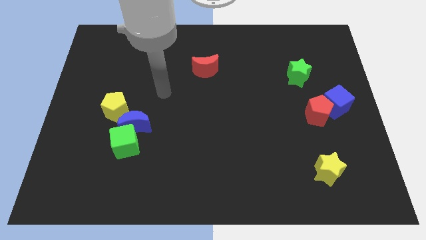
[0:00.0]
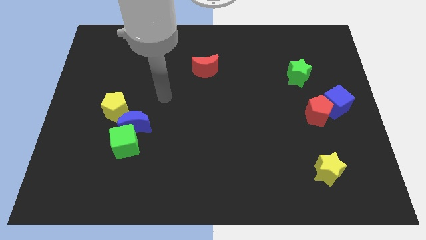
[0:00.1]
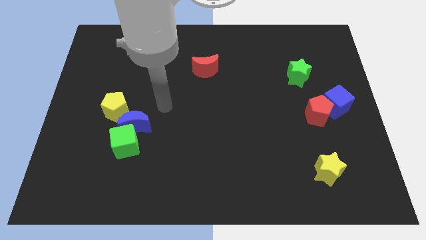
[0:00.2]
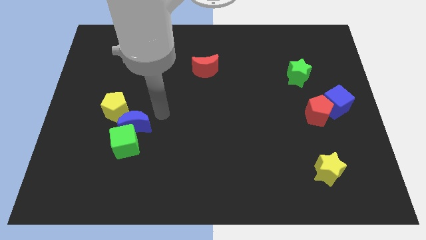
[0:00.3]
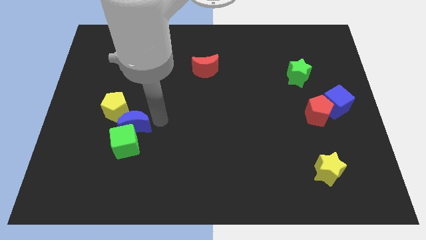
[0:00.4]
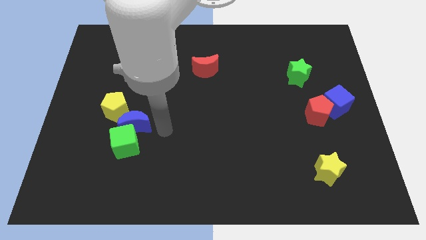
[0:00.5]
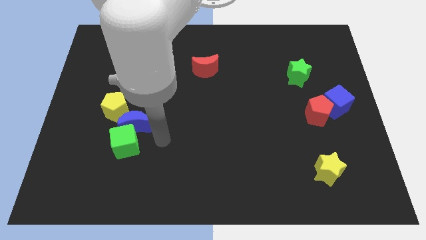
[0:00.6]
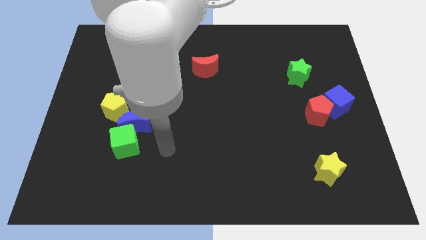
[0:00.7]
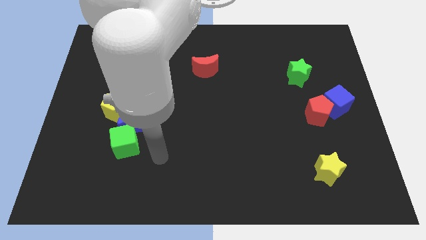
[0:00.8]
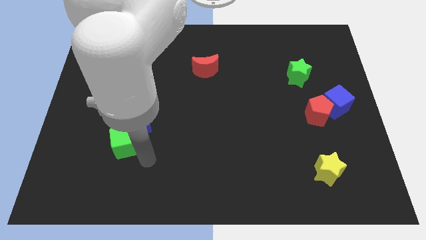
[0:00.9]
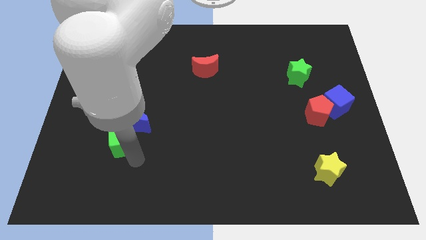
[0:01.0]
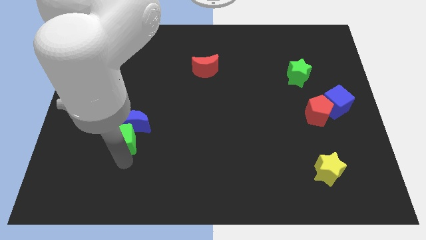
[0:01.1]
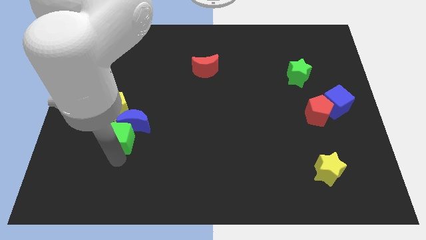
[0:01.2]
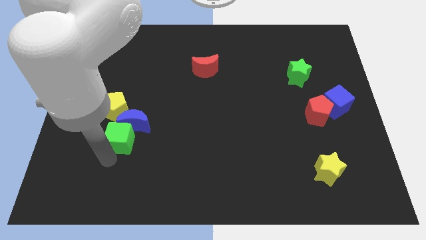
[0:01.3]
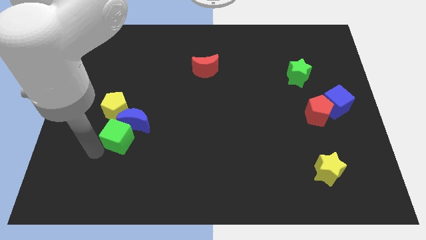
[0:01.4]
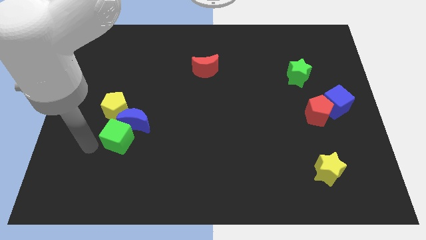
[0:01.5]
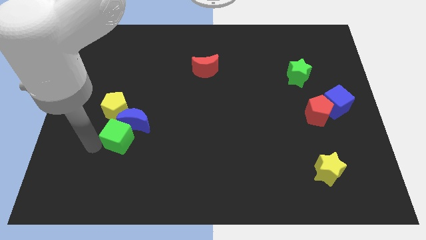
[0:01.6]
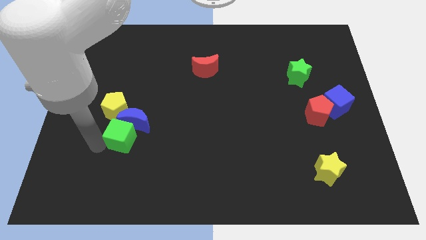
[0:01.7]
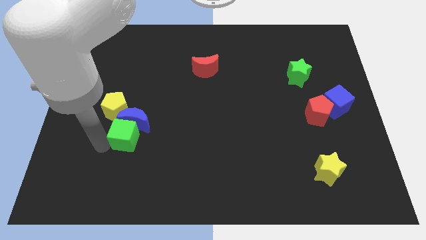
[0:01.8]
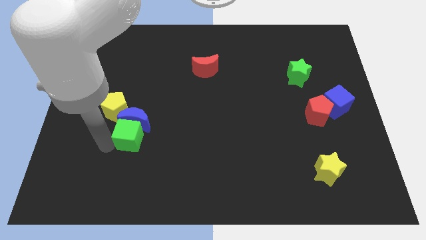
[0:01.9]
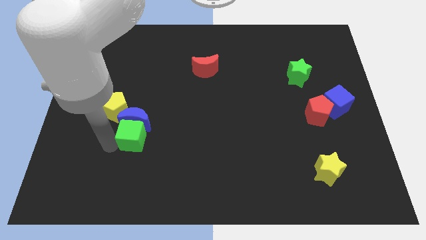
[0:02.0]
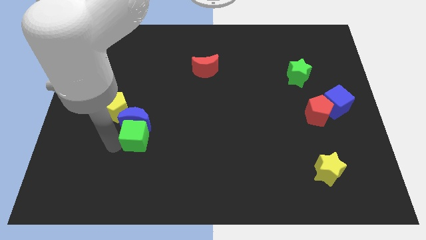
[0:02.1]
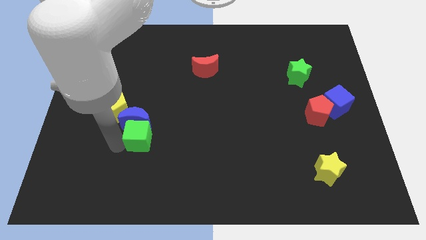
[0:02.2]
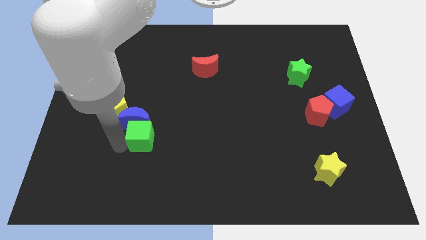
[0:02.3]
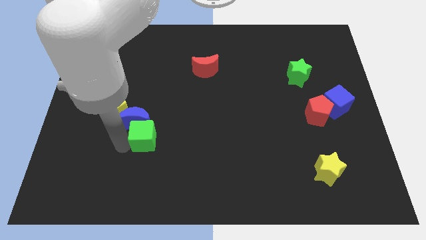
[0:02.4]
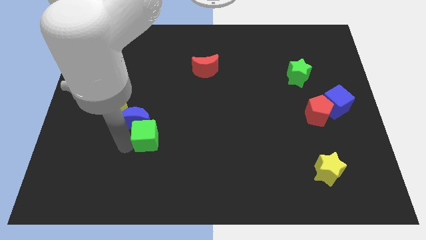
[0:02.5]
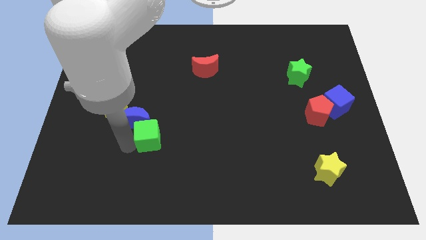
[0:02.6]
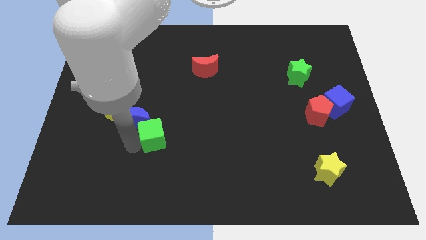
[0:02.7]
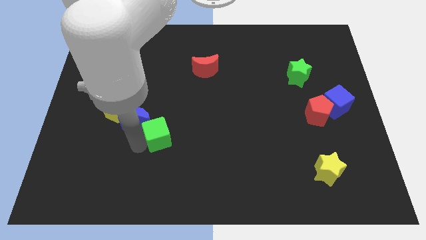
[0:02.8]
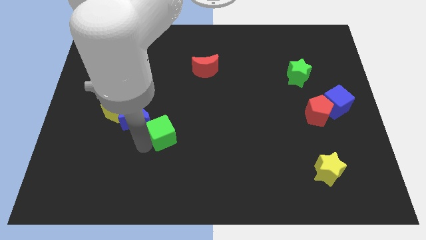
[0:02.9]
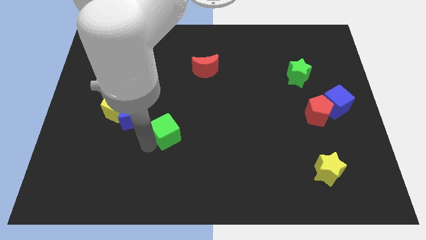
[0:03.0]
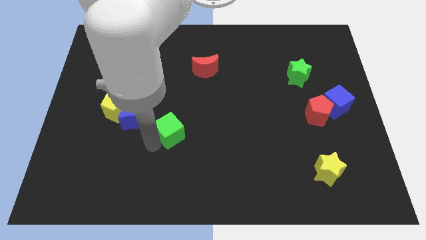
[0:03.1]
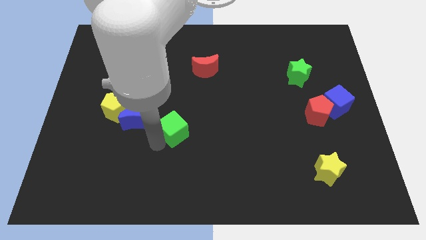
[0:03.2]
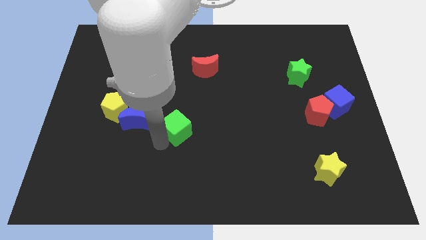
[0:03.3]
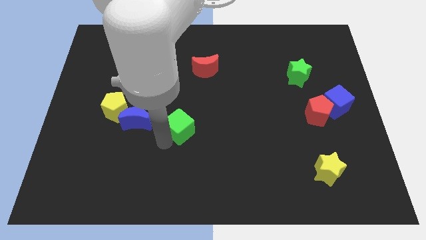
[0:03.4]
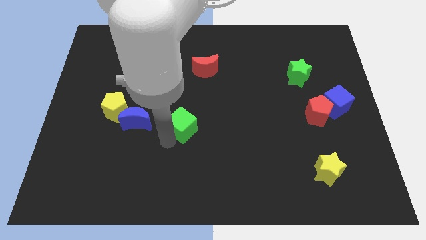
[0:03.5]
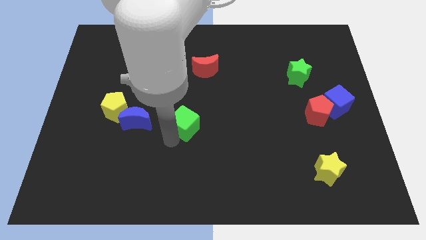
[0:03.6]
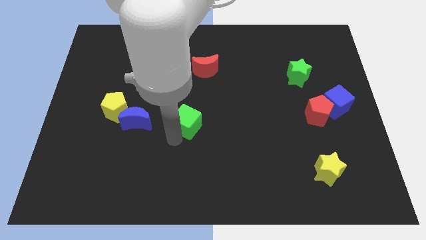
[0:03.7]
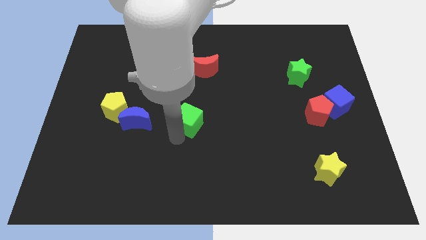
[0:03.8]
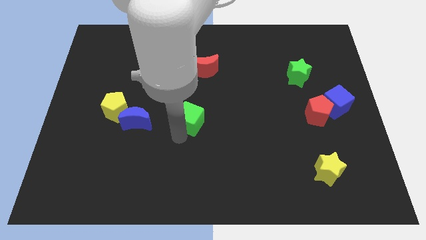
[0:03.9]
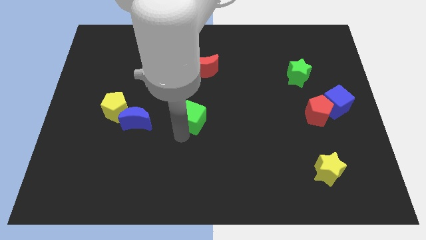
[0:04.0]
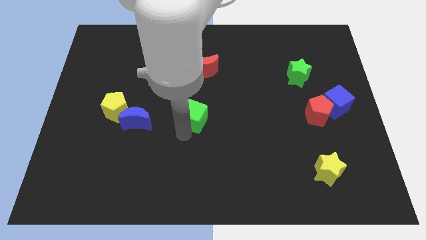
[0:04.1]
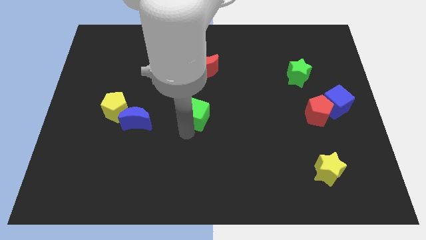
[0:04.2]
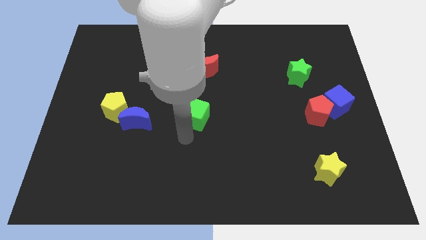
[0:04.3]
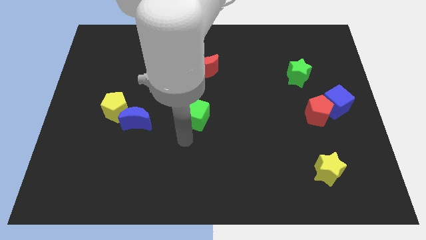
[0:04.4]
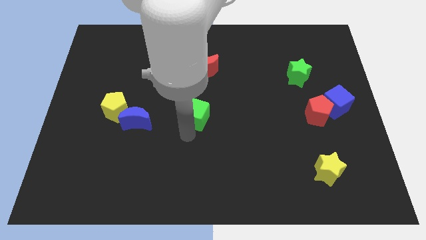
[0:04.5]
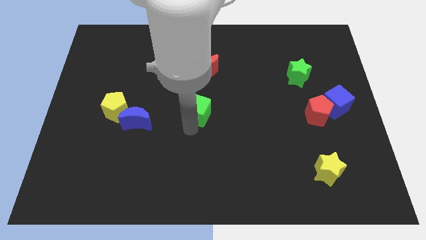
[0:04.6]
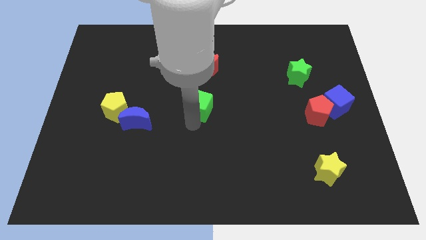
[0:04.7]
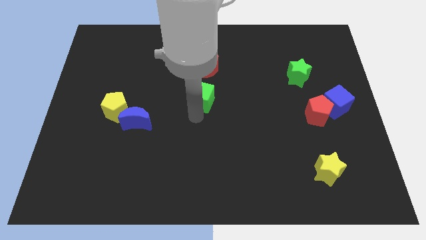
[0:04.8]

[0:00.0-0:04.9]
move the green cube diagonally up and right

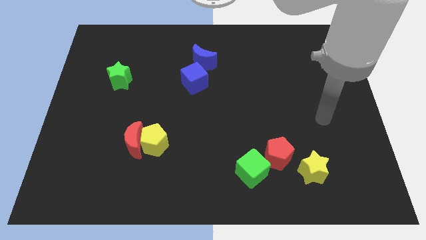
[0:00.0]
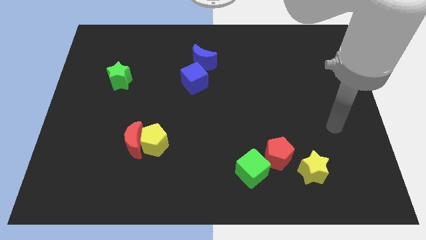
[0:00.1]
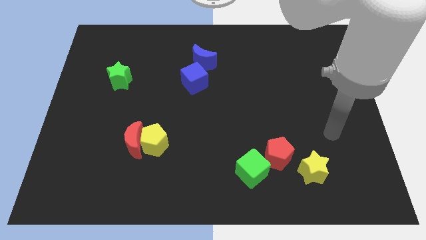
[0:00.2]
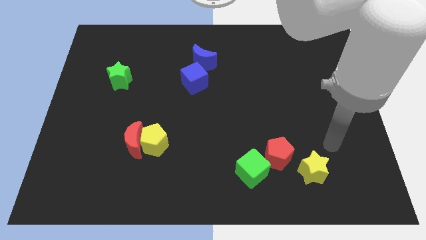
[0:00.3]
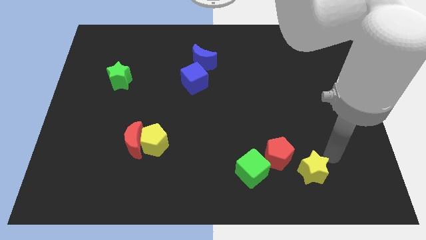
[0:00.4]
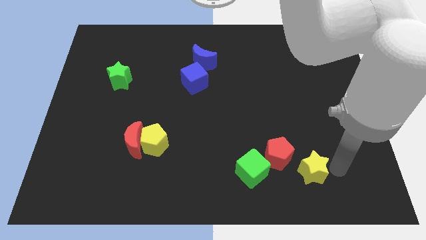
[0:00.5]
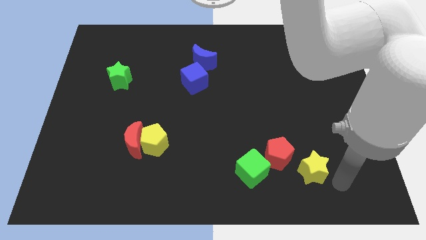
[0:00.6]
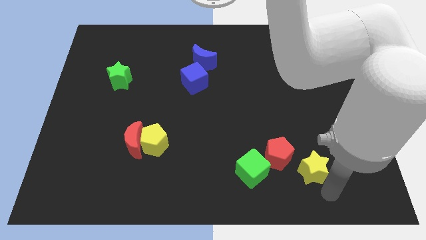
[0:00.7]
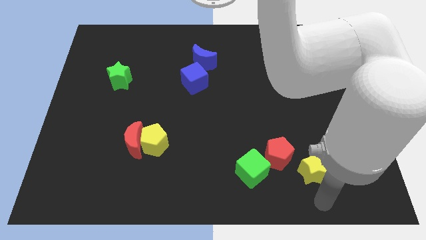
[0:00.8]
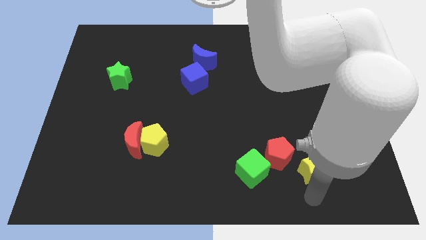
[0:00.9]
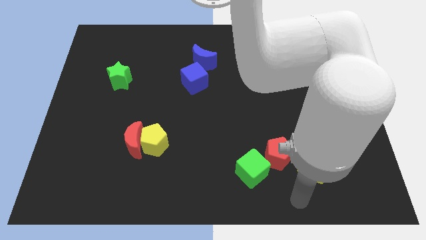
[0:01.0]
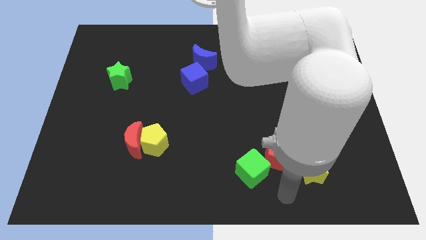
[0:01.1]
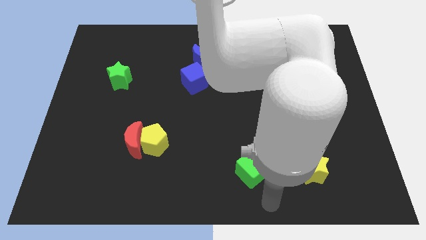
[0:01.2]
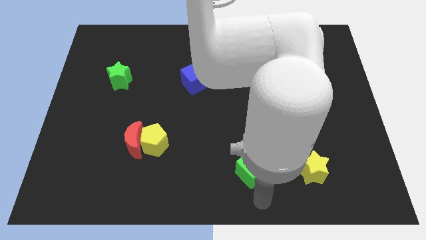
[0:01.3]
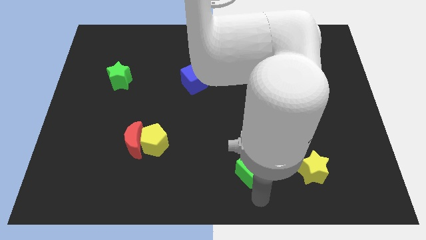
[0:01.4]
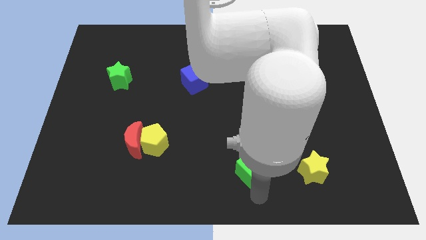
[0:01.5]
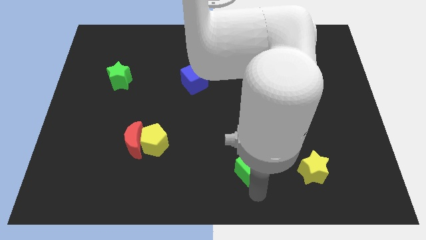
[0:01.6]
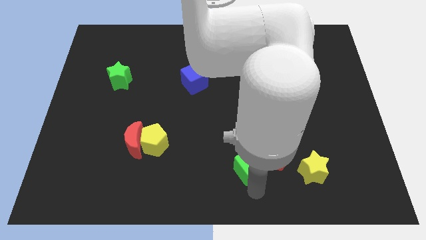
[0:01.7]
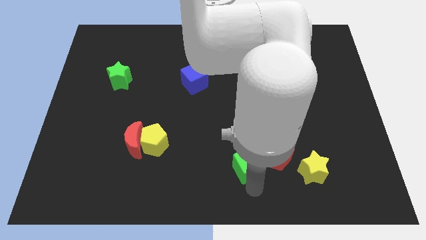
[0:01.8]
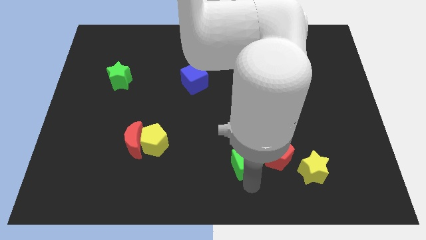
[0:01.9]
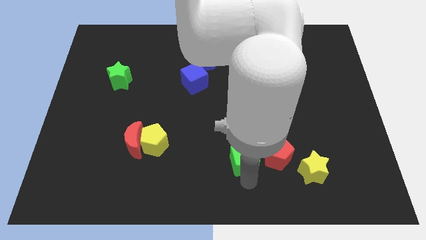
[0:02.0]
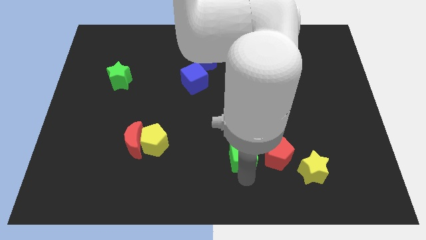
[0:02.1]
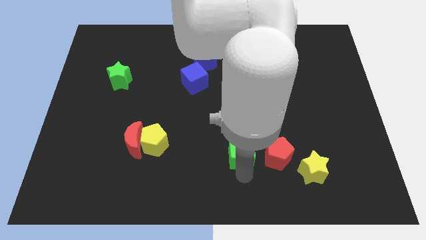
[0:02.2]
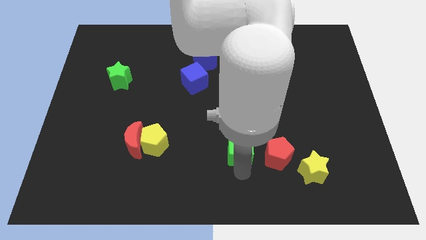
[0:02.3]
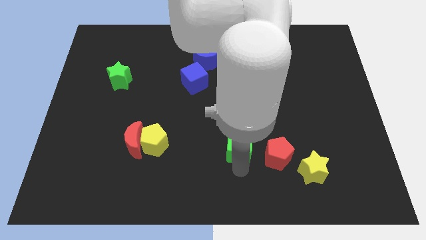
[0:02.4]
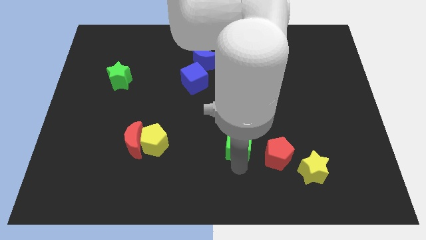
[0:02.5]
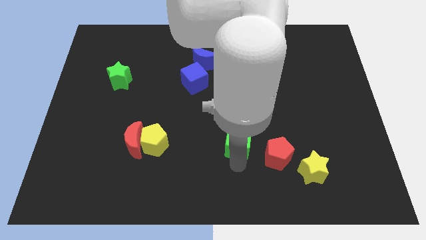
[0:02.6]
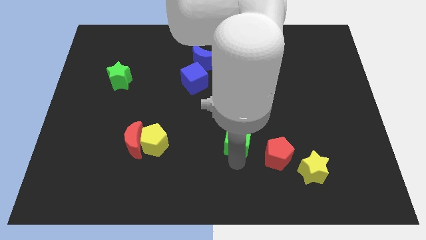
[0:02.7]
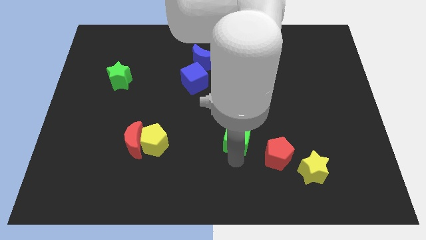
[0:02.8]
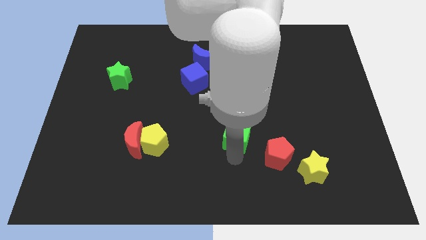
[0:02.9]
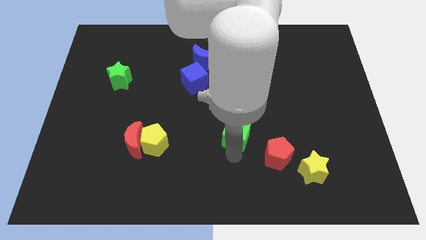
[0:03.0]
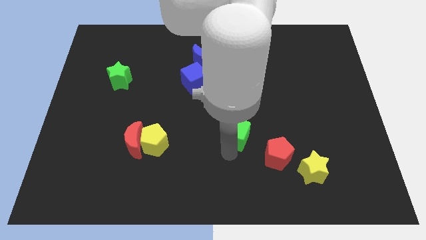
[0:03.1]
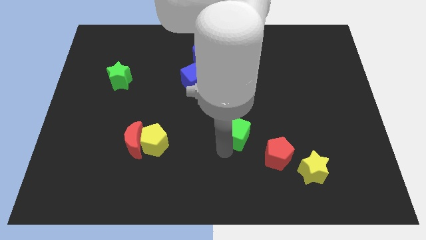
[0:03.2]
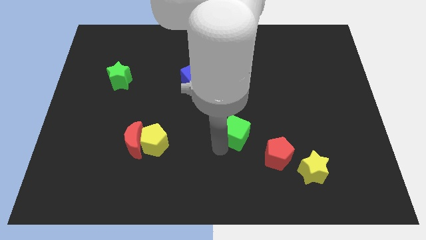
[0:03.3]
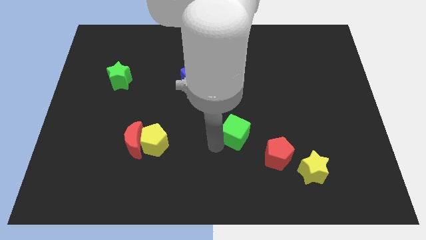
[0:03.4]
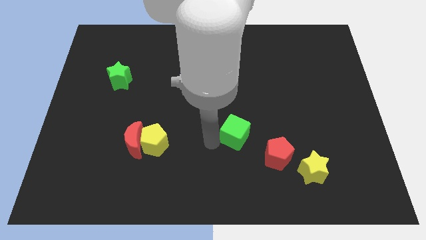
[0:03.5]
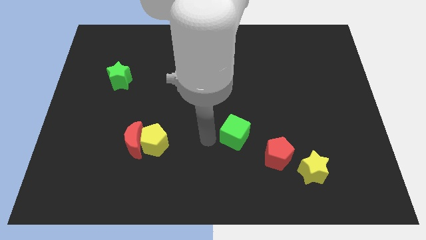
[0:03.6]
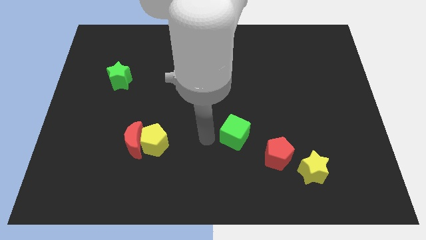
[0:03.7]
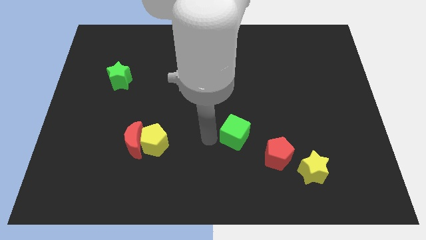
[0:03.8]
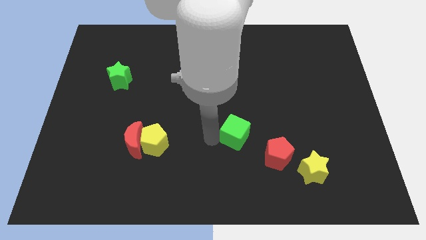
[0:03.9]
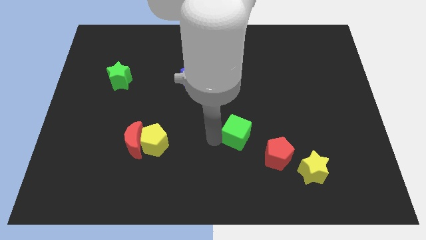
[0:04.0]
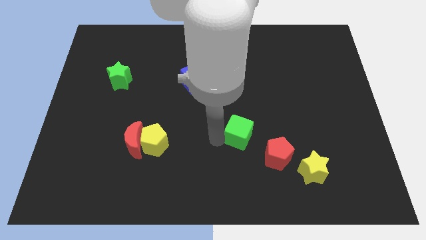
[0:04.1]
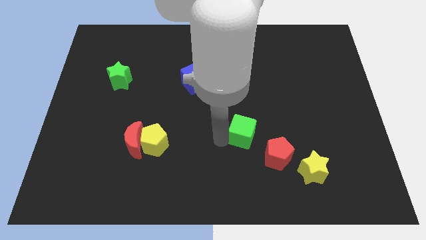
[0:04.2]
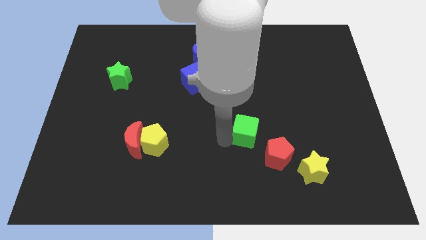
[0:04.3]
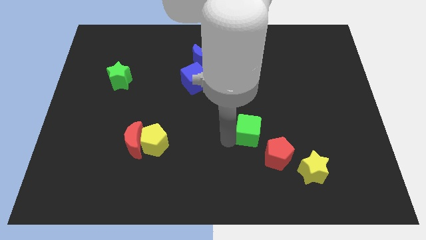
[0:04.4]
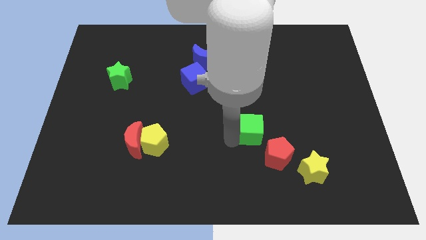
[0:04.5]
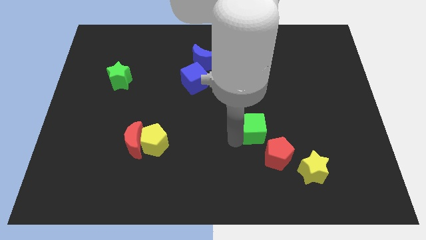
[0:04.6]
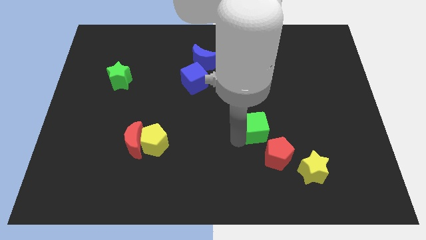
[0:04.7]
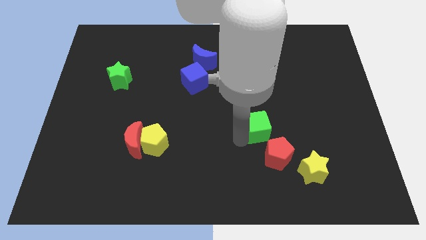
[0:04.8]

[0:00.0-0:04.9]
slightly move the green cube up and then right
